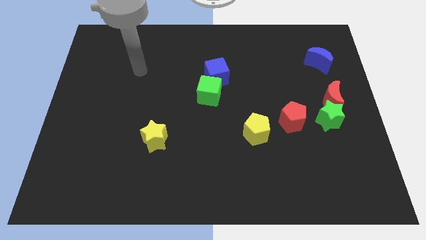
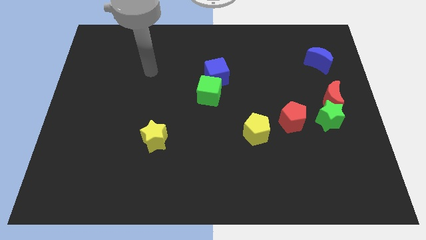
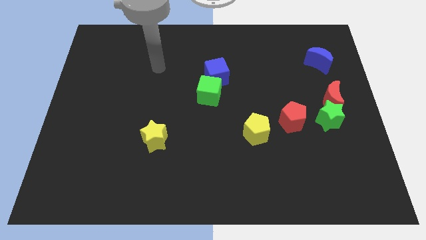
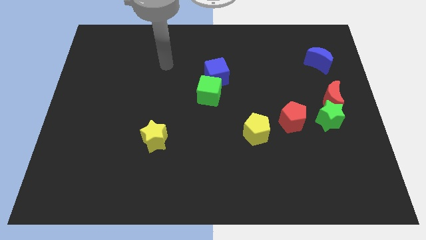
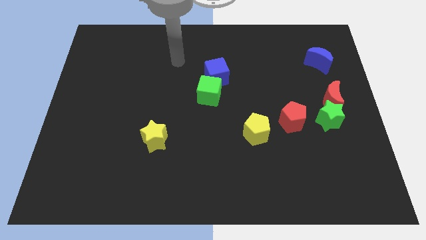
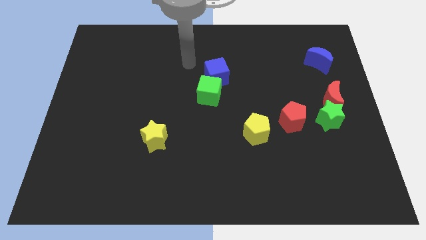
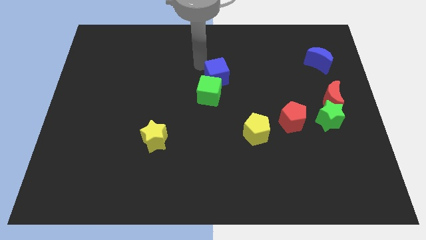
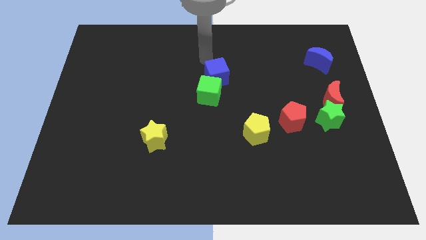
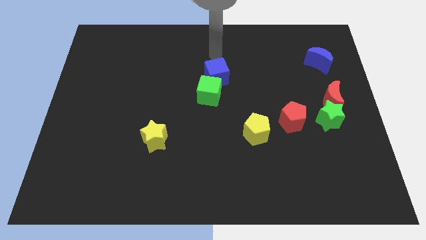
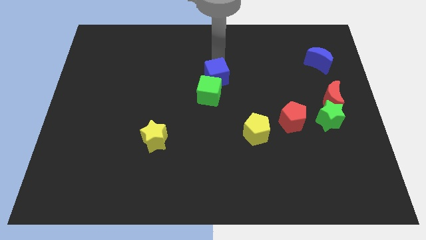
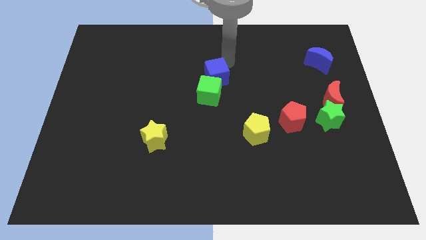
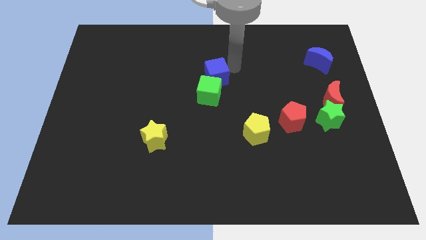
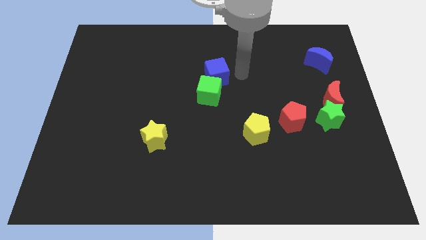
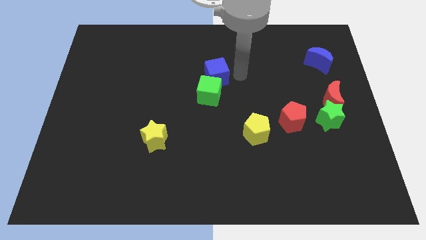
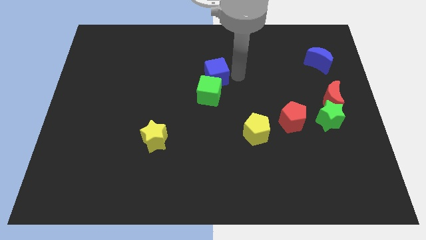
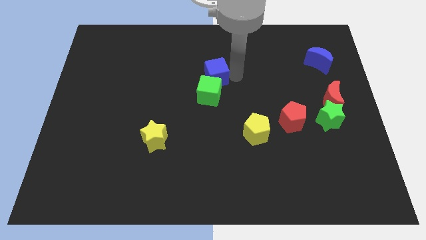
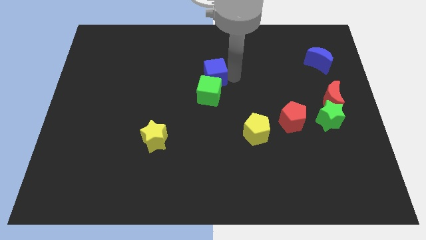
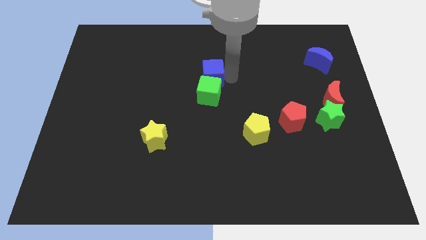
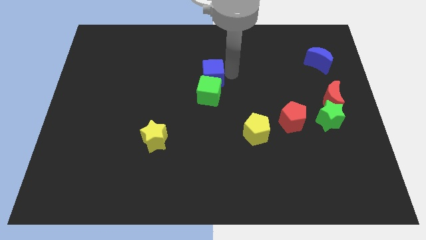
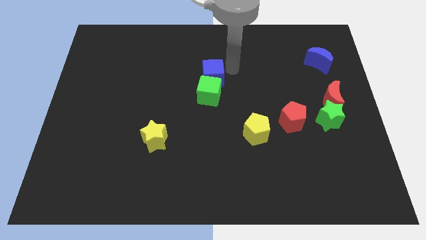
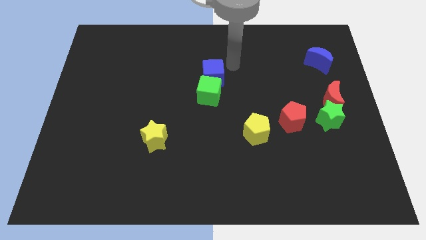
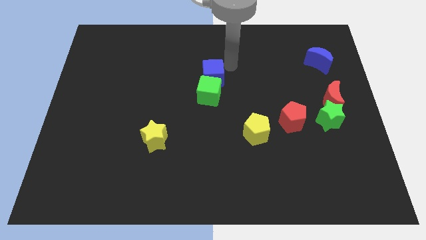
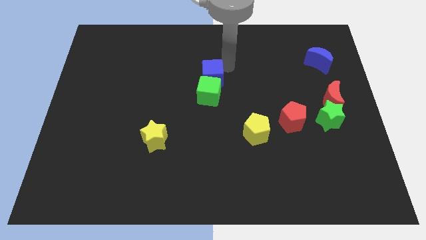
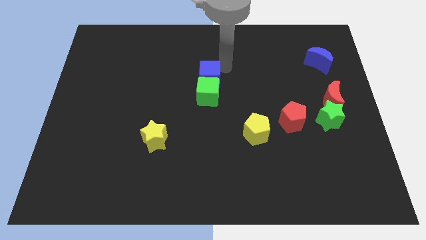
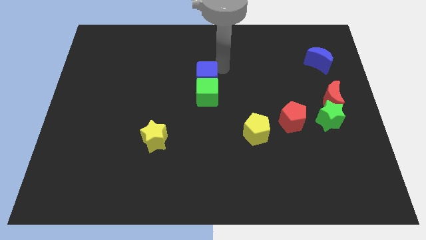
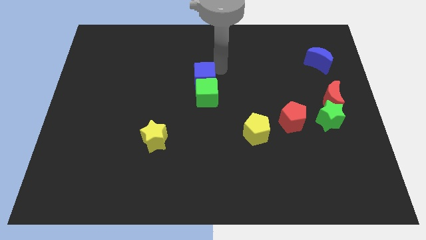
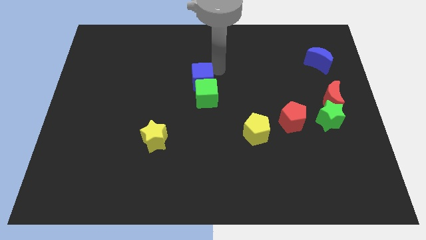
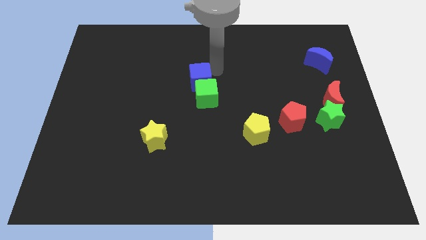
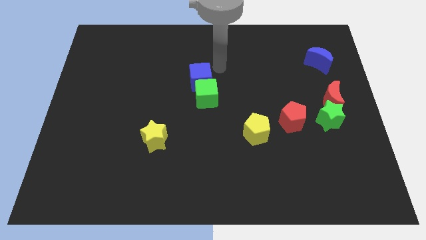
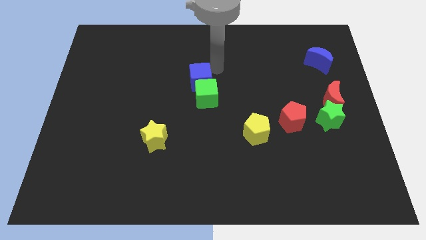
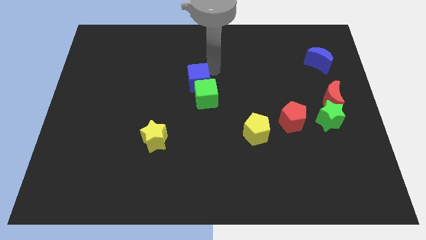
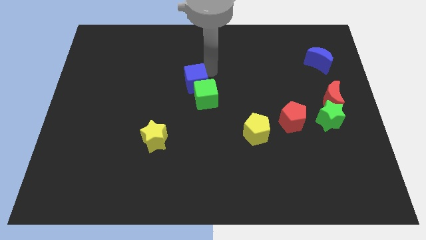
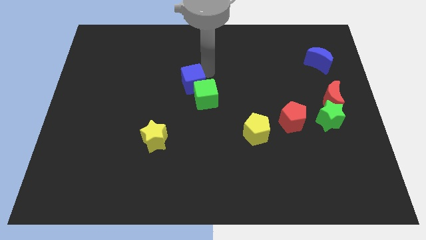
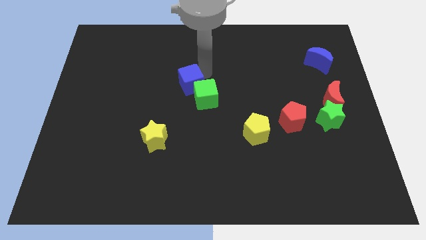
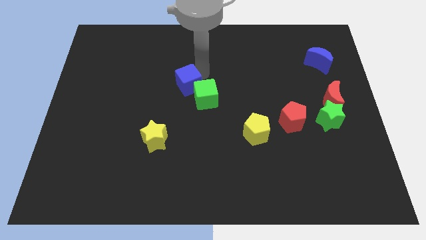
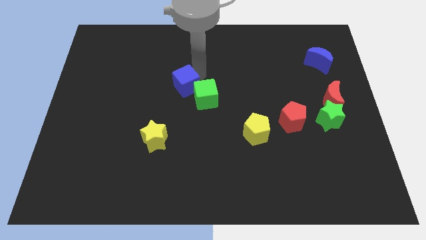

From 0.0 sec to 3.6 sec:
push the blue cube diagonally down and to the left a little bit

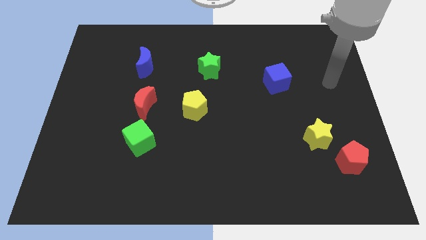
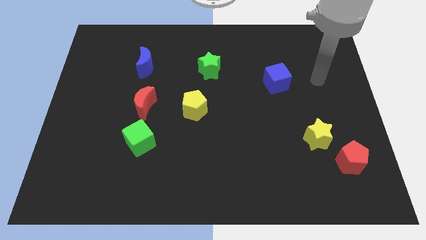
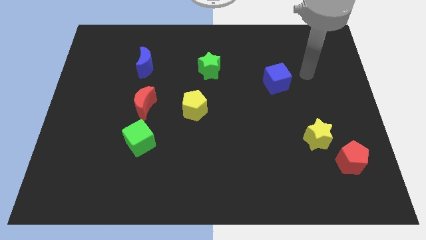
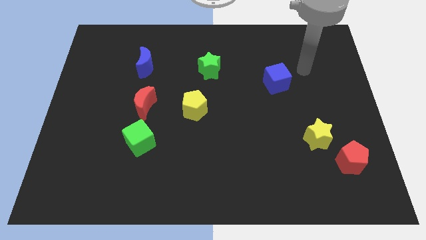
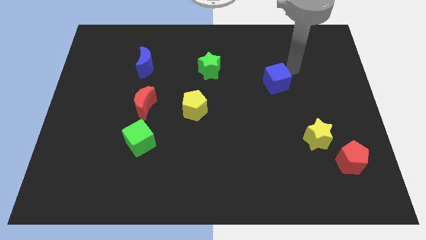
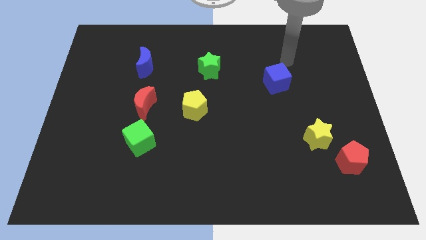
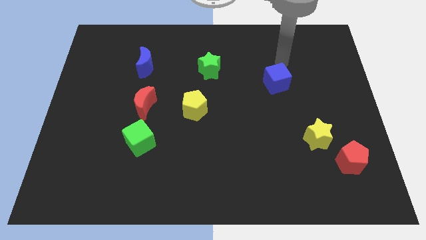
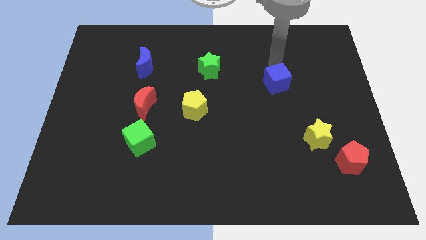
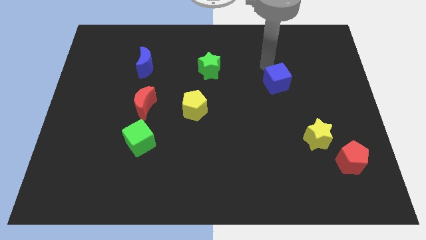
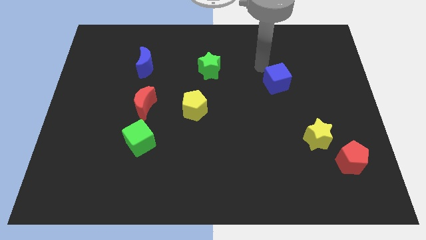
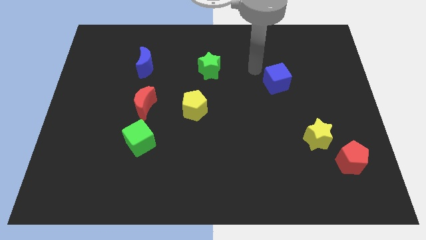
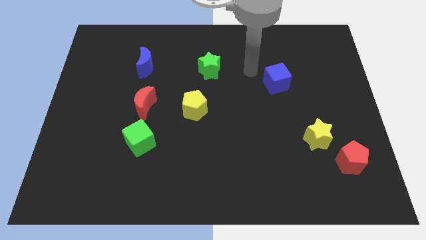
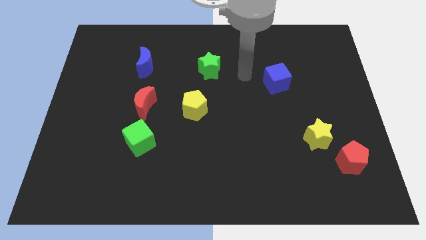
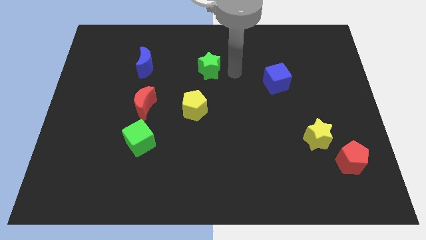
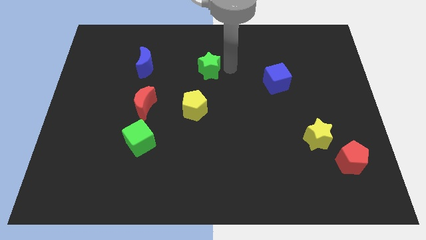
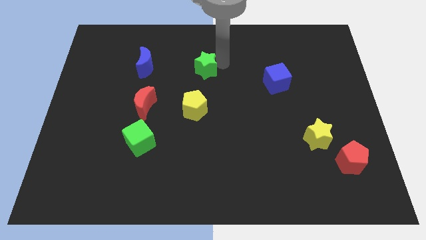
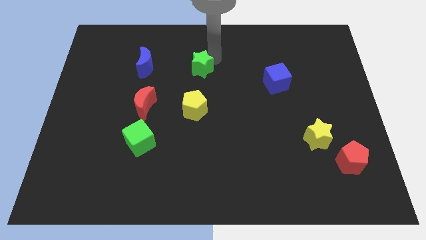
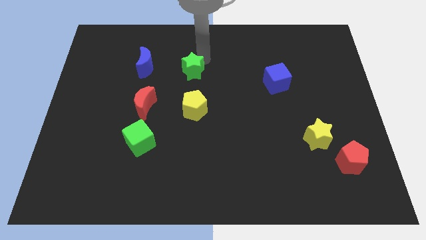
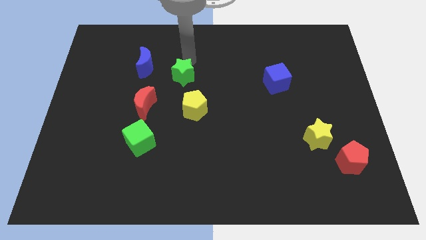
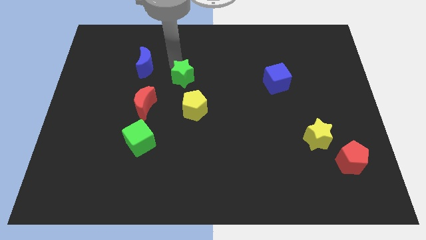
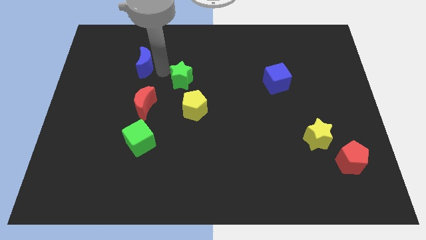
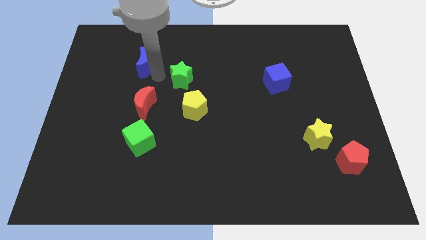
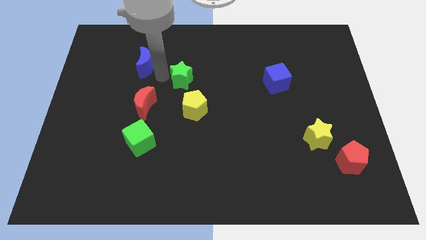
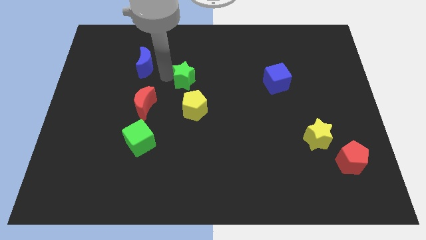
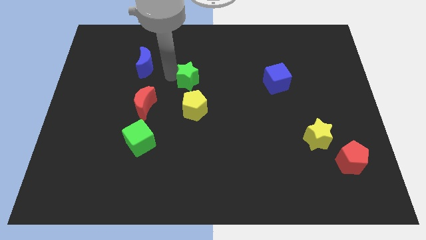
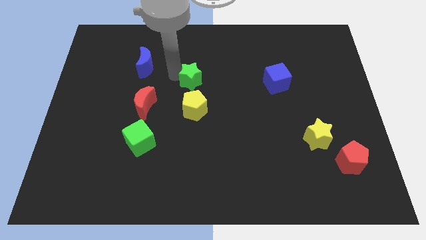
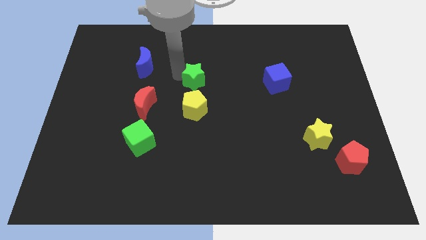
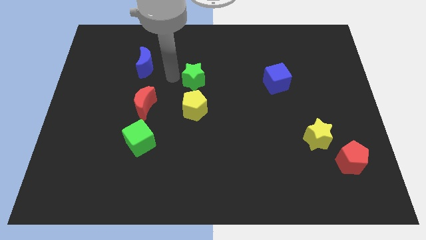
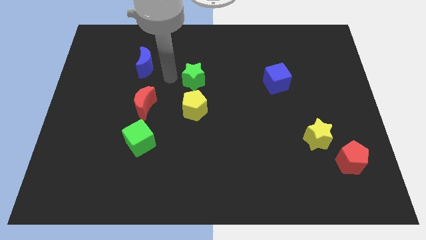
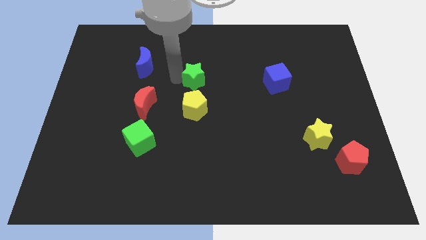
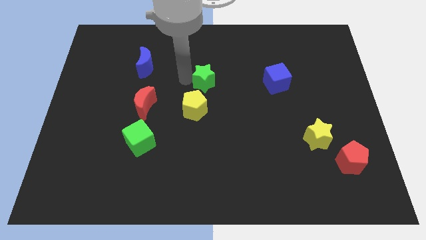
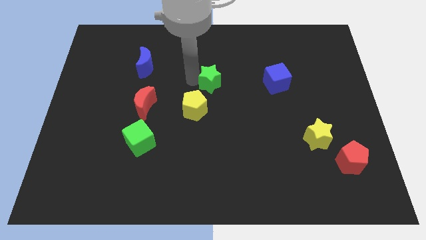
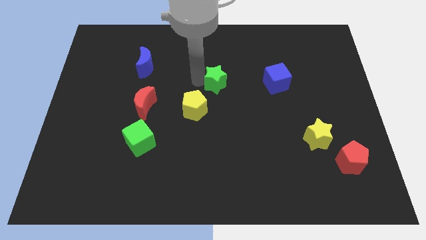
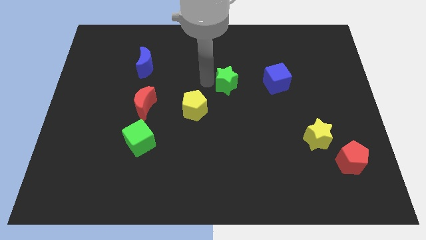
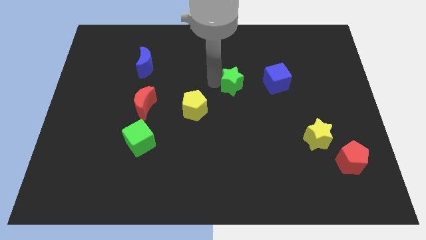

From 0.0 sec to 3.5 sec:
slide the green star a bit downwards and then to the right

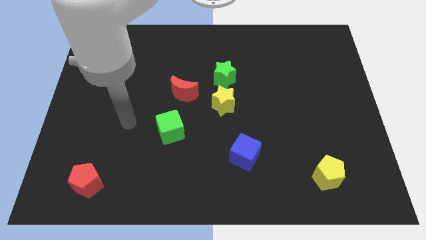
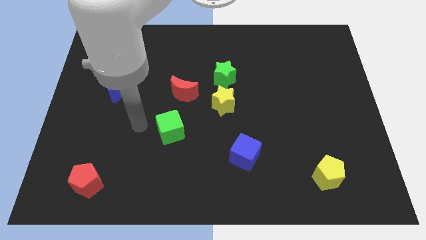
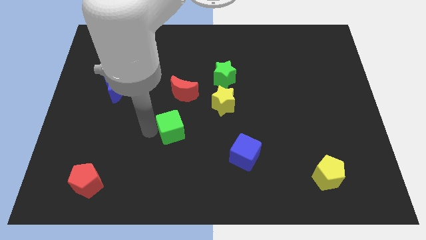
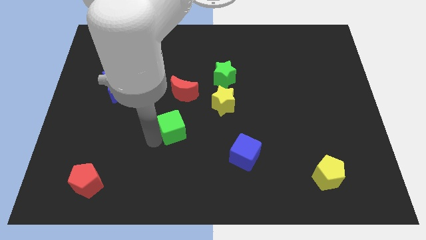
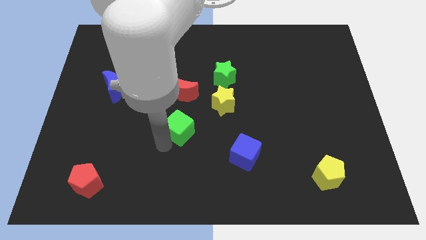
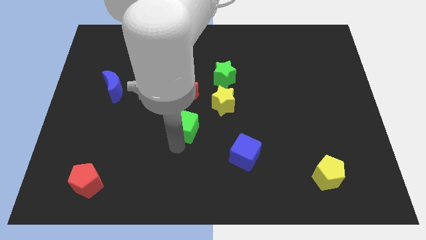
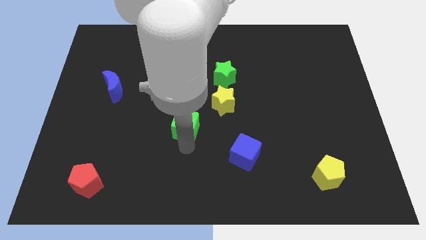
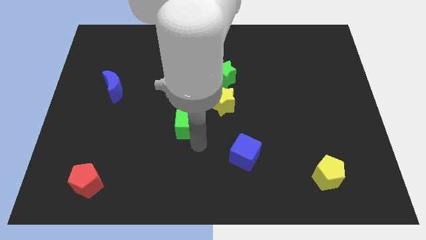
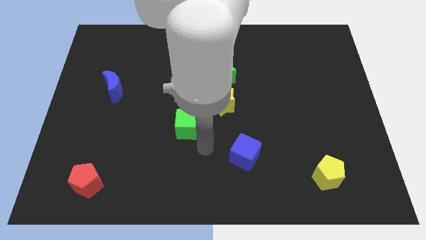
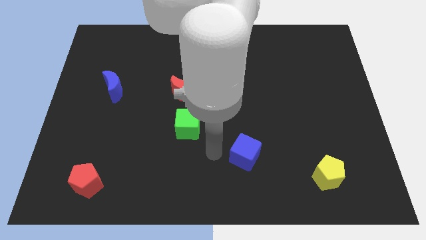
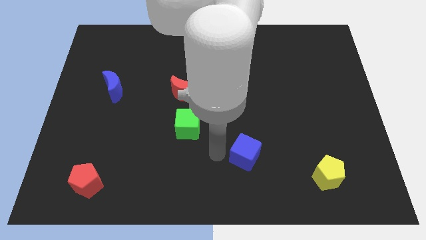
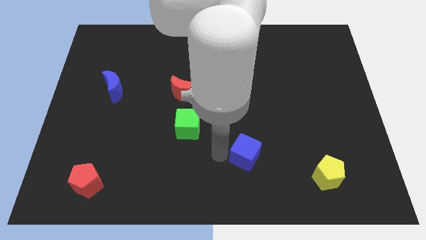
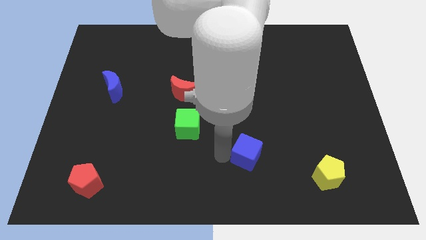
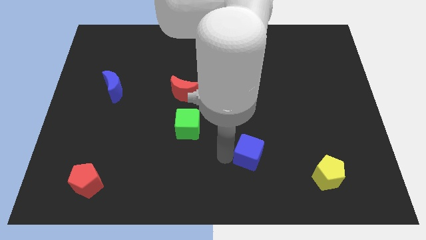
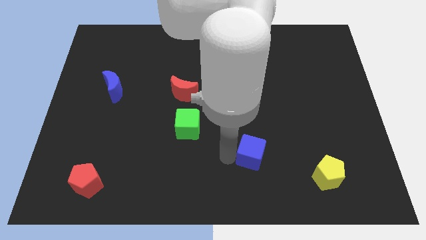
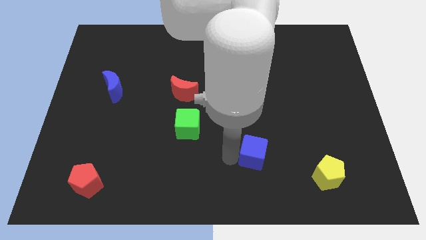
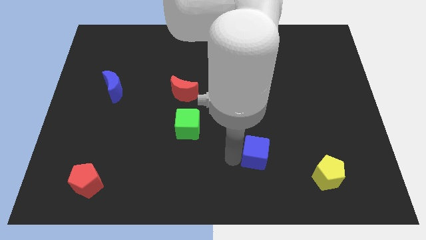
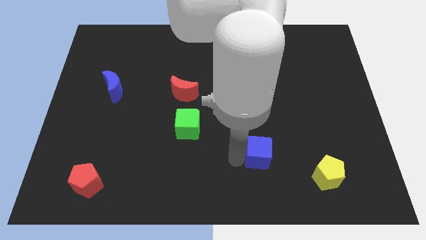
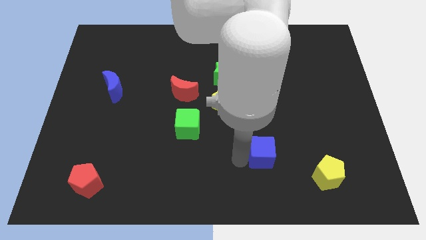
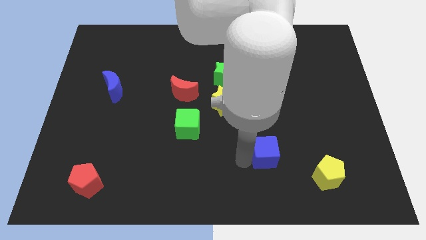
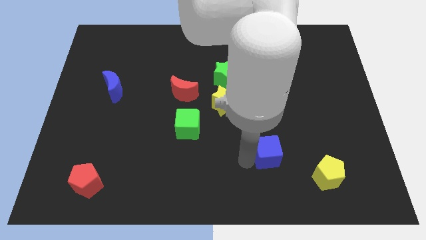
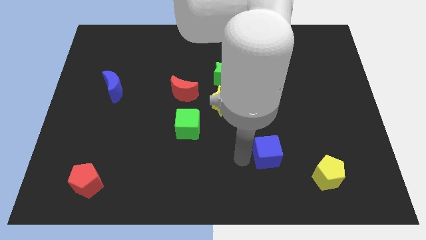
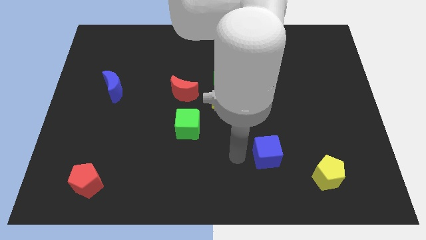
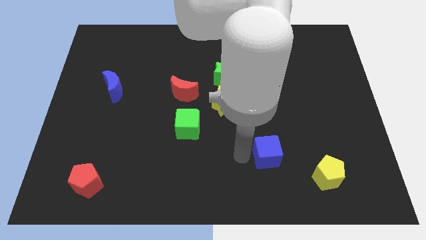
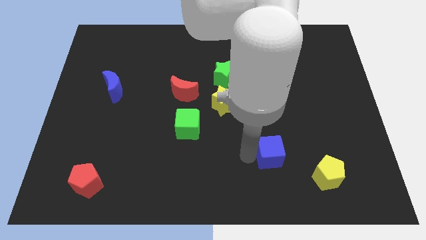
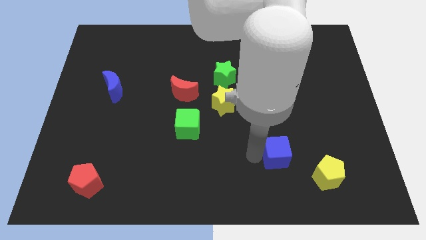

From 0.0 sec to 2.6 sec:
slightly move the blue cube to the right
